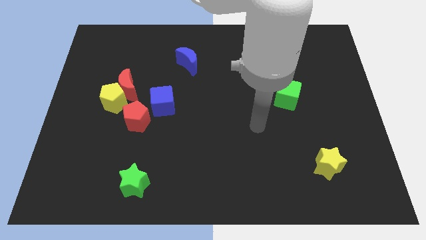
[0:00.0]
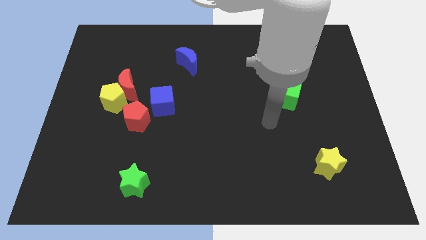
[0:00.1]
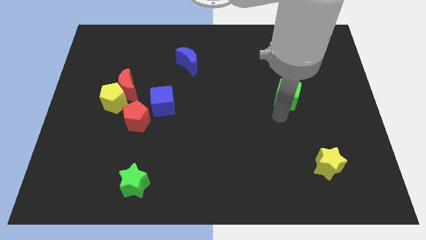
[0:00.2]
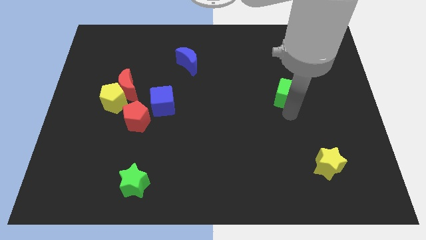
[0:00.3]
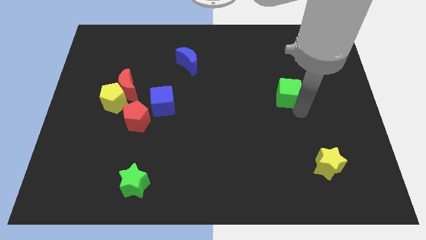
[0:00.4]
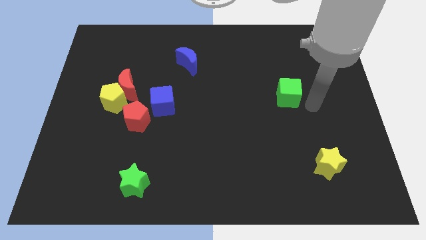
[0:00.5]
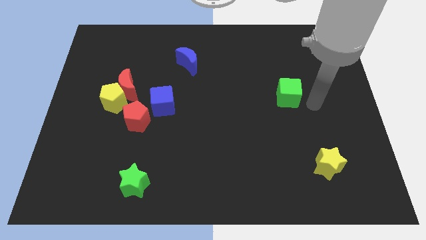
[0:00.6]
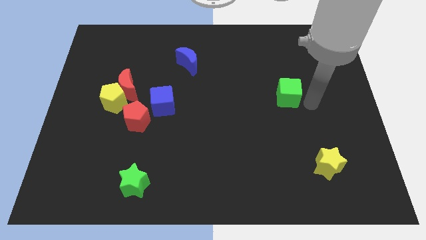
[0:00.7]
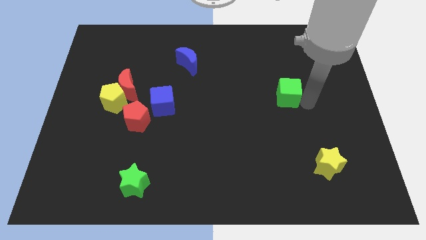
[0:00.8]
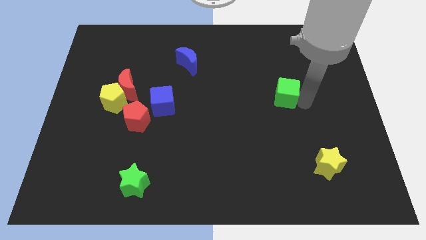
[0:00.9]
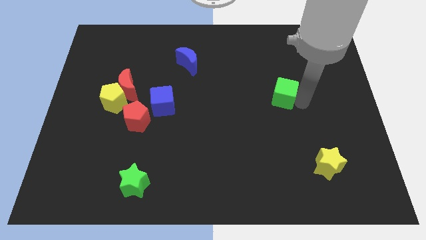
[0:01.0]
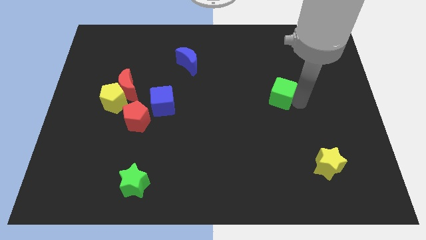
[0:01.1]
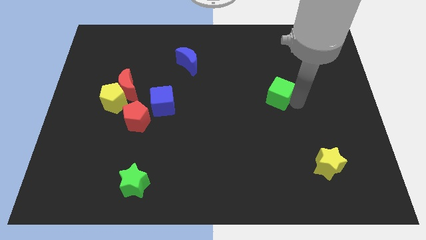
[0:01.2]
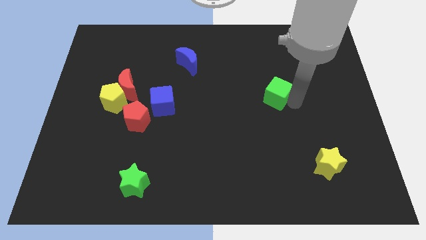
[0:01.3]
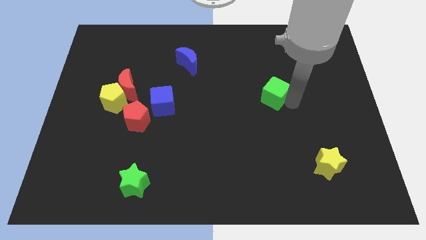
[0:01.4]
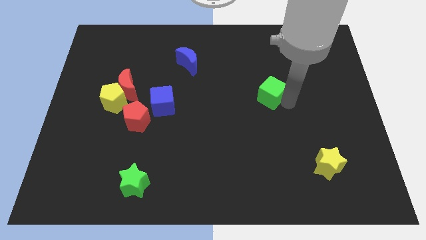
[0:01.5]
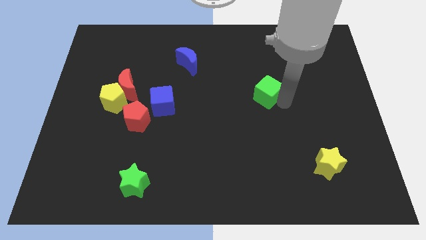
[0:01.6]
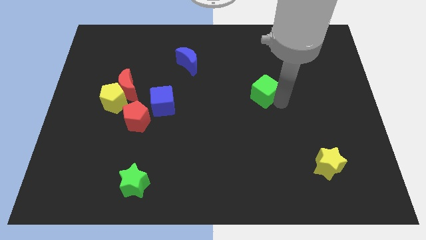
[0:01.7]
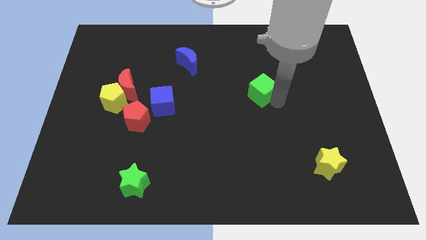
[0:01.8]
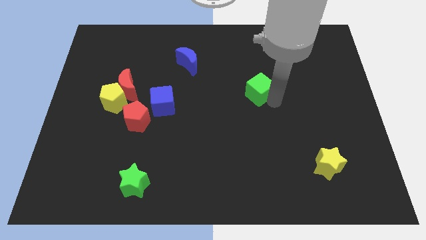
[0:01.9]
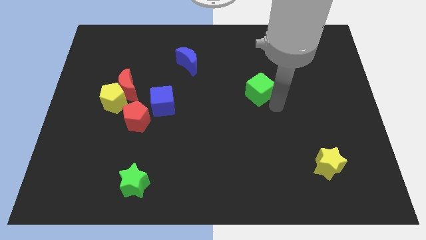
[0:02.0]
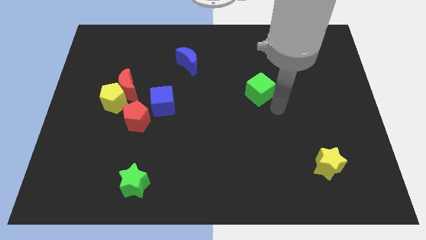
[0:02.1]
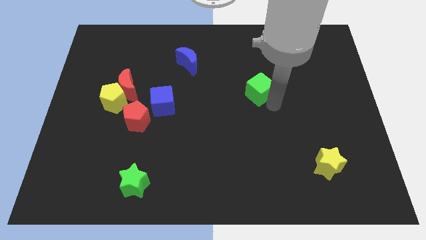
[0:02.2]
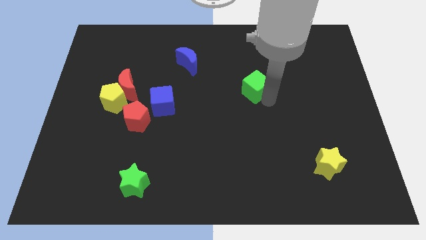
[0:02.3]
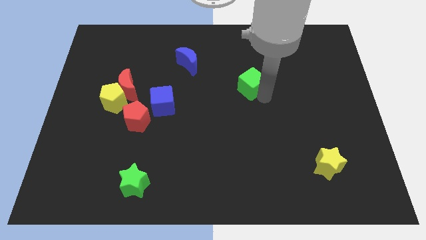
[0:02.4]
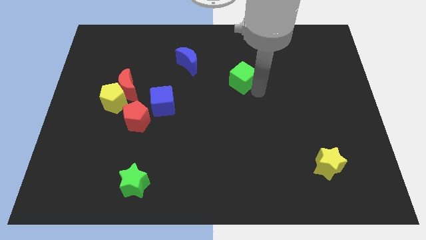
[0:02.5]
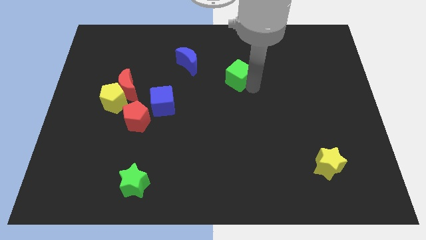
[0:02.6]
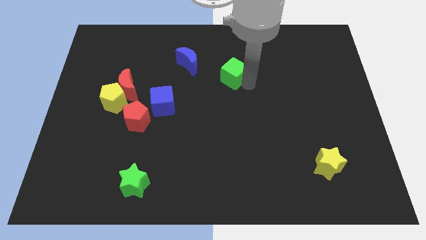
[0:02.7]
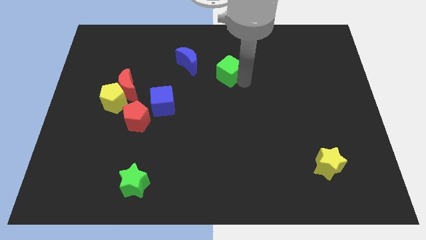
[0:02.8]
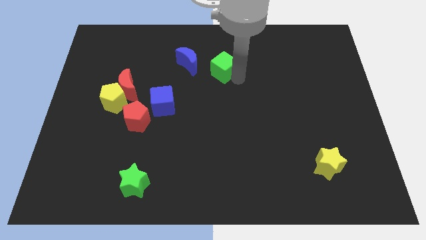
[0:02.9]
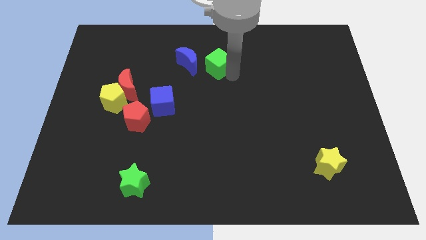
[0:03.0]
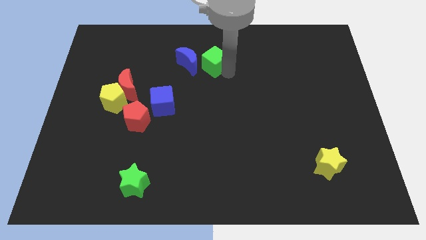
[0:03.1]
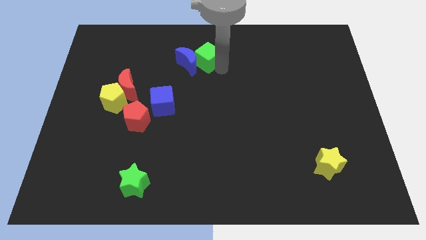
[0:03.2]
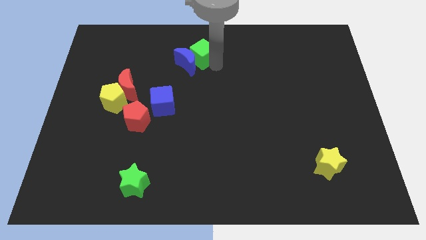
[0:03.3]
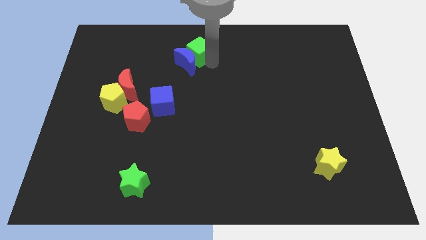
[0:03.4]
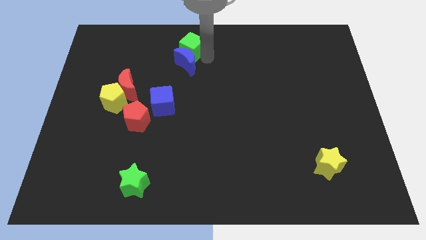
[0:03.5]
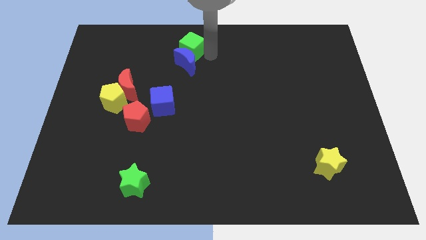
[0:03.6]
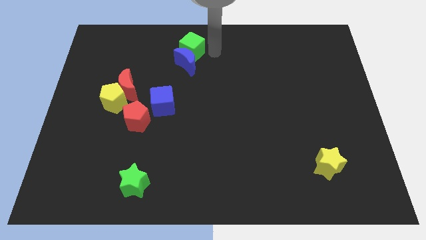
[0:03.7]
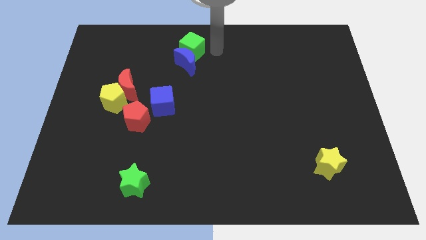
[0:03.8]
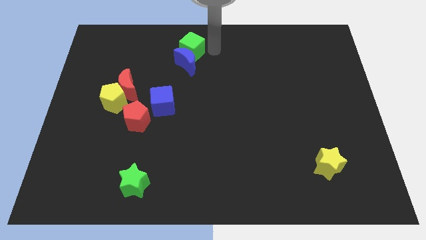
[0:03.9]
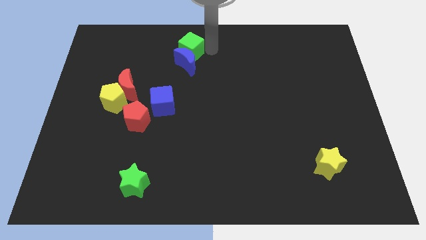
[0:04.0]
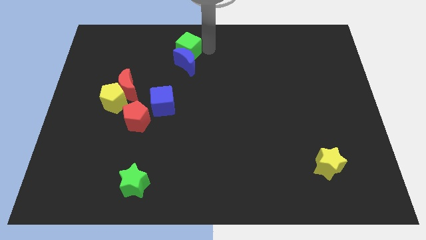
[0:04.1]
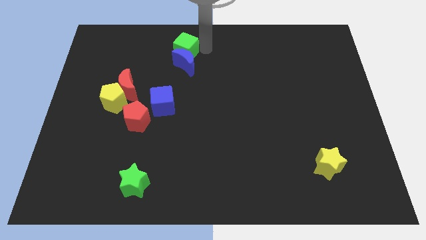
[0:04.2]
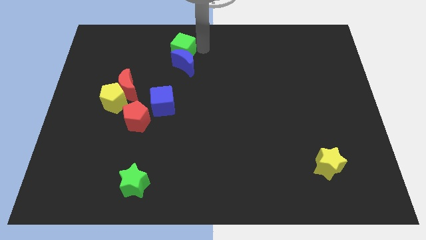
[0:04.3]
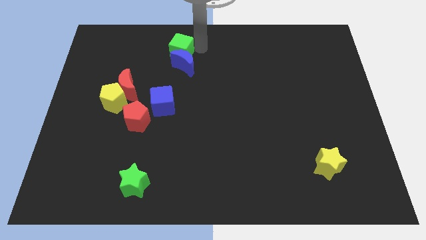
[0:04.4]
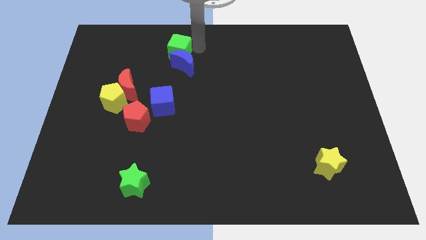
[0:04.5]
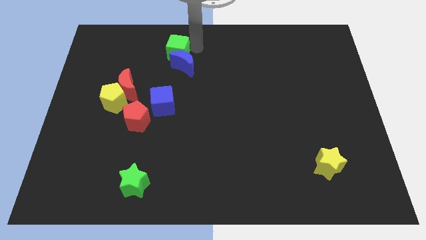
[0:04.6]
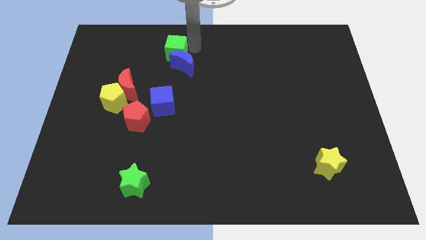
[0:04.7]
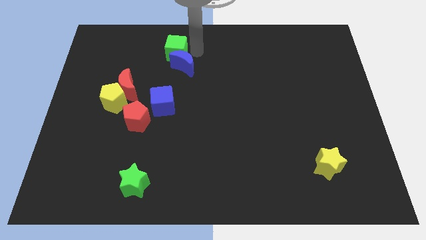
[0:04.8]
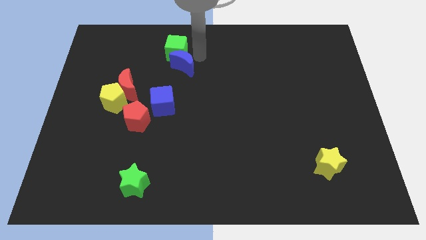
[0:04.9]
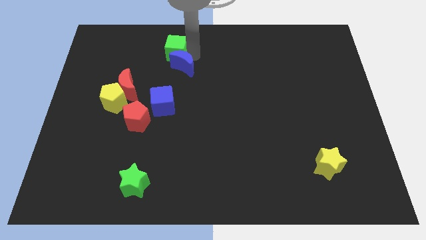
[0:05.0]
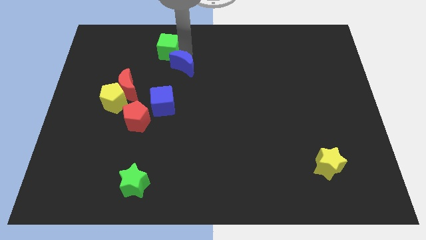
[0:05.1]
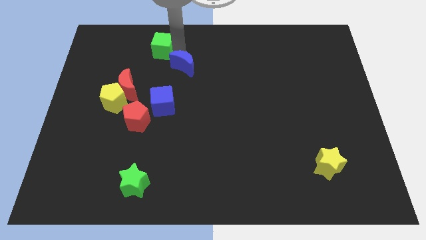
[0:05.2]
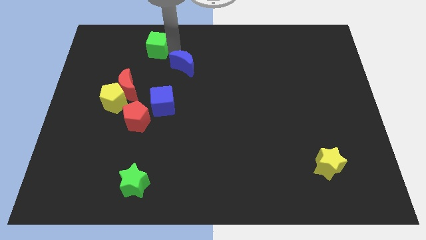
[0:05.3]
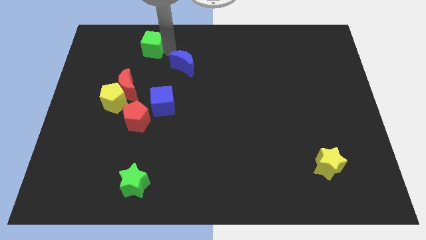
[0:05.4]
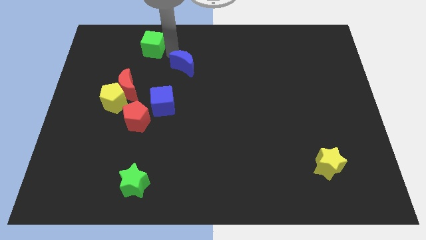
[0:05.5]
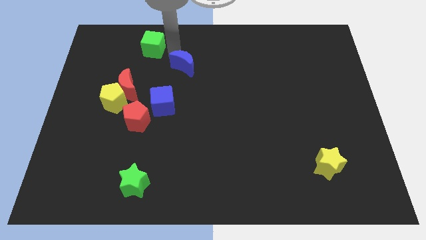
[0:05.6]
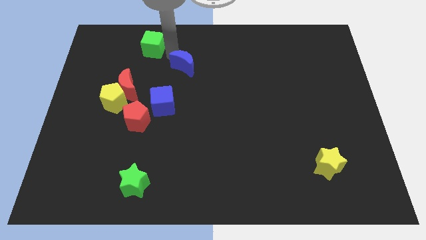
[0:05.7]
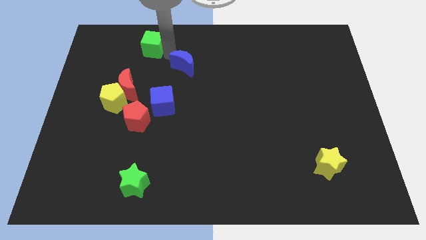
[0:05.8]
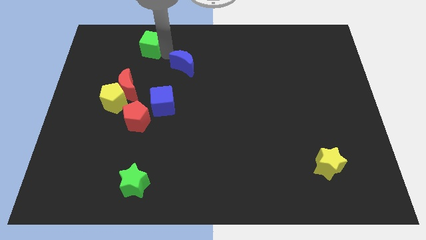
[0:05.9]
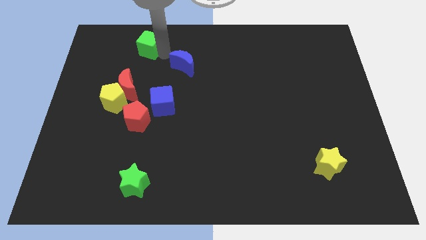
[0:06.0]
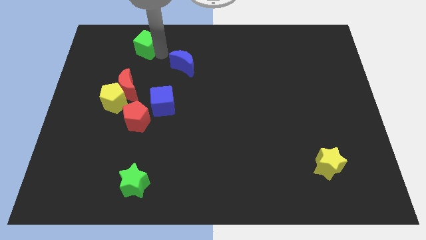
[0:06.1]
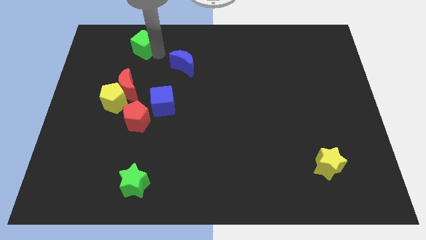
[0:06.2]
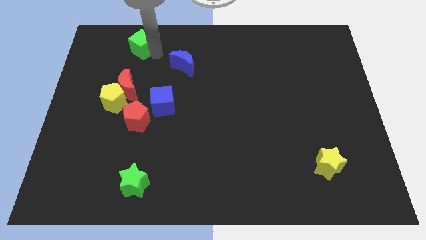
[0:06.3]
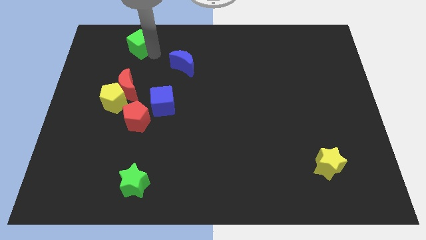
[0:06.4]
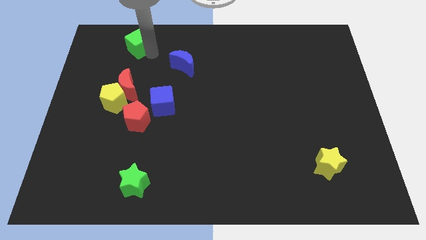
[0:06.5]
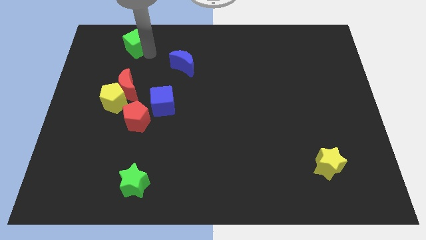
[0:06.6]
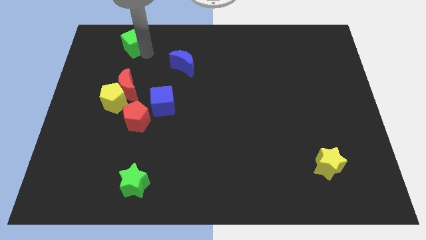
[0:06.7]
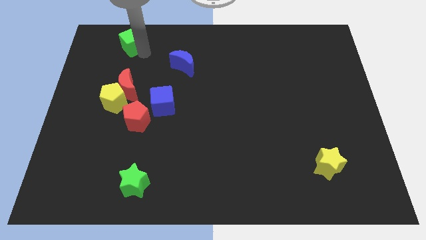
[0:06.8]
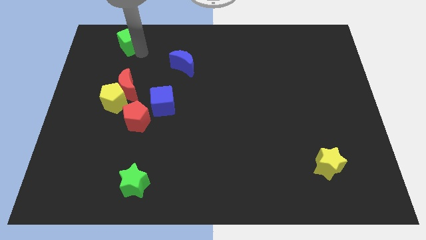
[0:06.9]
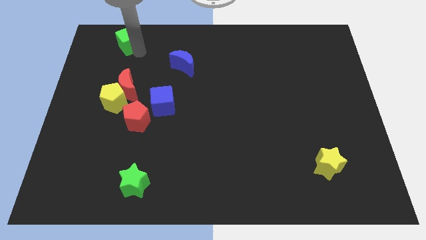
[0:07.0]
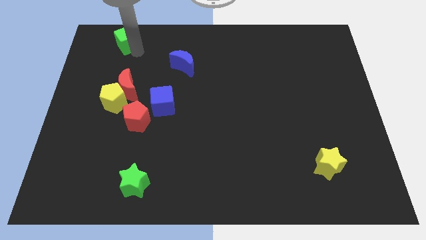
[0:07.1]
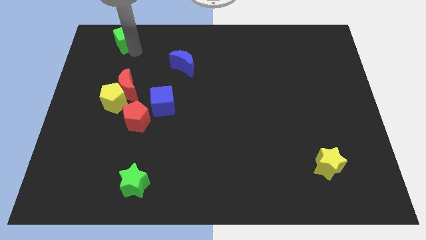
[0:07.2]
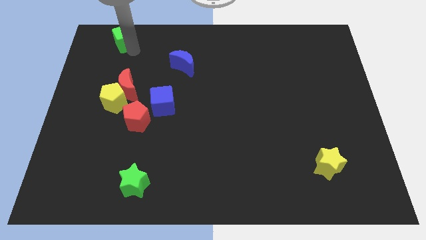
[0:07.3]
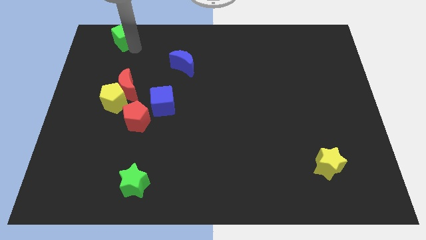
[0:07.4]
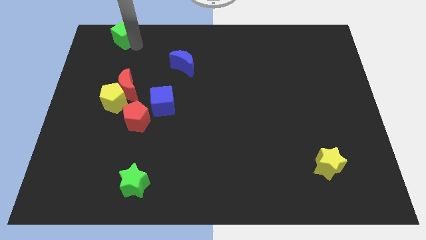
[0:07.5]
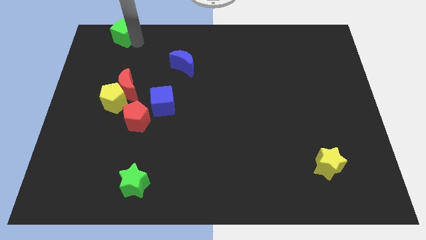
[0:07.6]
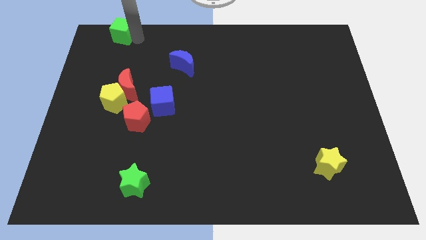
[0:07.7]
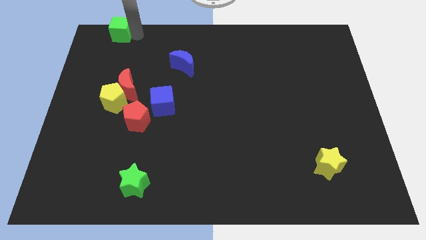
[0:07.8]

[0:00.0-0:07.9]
move the green cube to the top left corner
